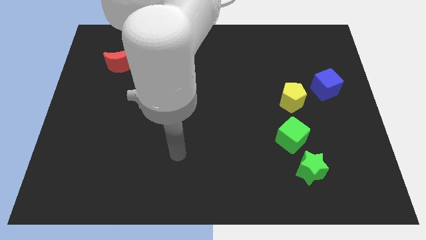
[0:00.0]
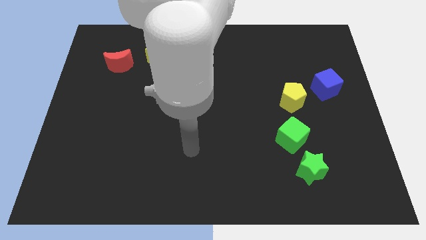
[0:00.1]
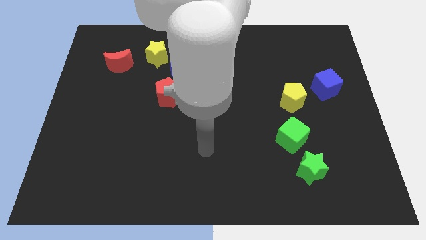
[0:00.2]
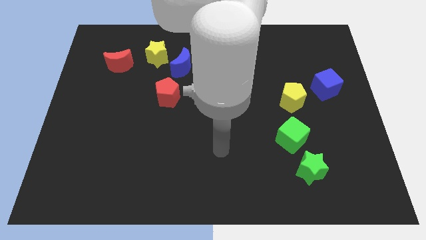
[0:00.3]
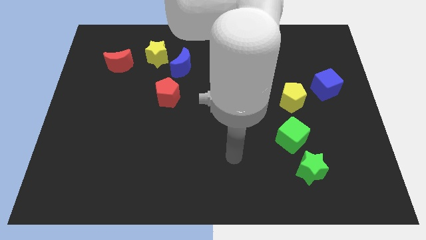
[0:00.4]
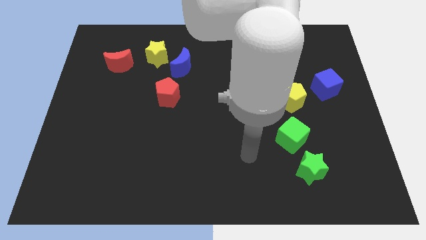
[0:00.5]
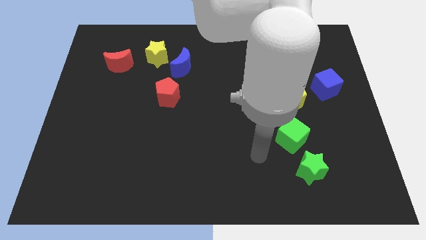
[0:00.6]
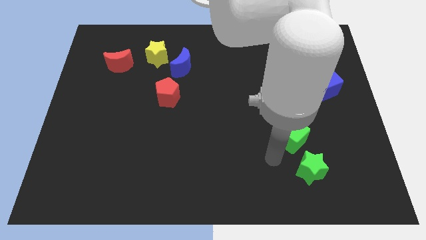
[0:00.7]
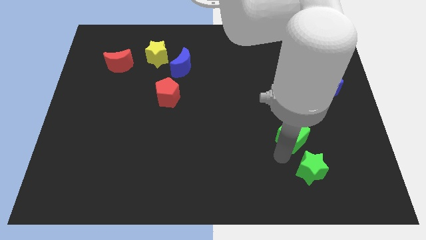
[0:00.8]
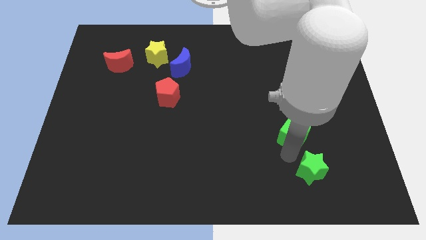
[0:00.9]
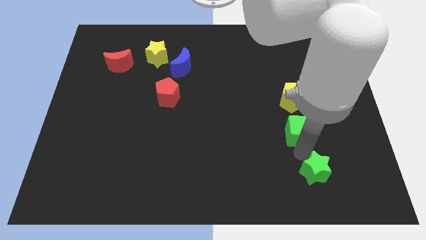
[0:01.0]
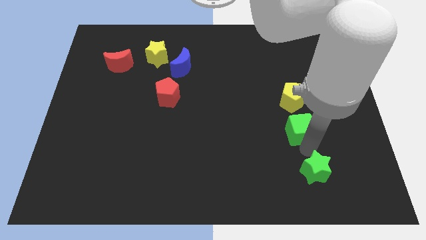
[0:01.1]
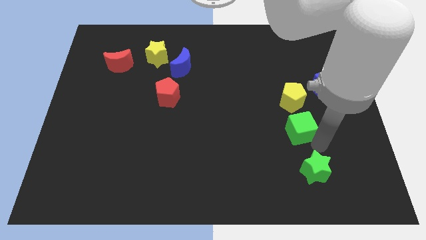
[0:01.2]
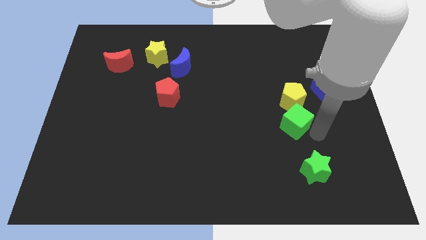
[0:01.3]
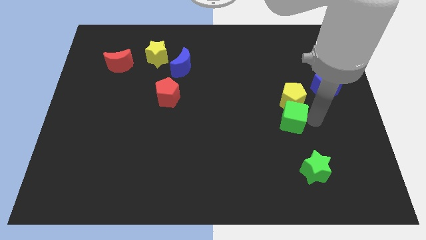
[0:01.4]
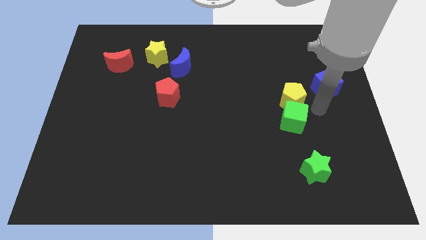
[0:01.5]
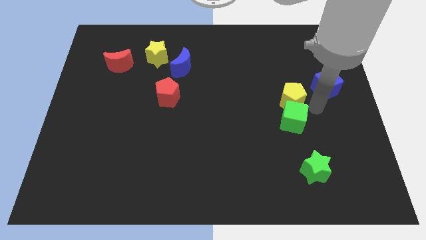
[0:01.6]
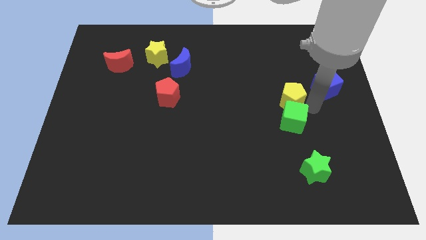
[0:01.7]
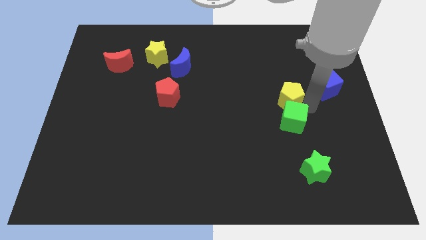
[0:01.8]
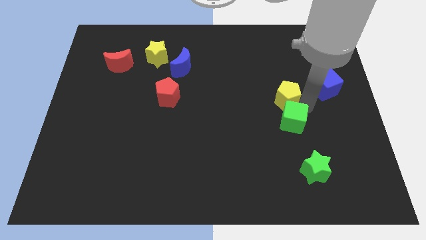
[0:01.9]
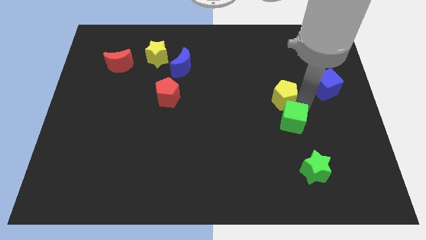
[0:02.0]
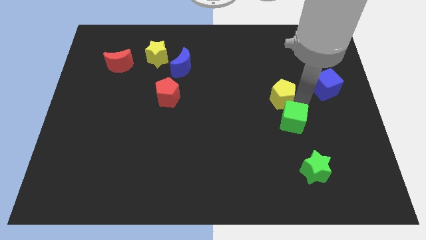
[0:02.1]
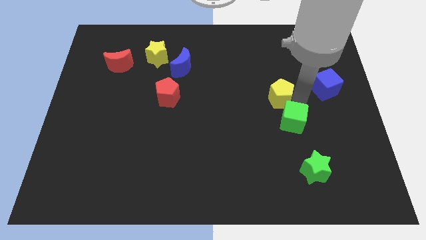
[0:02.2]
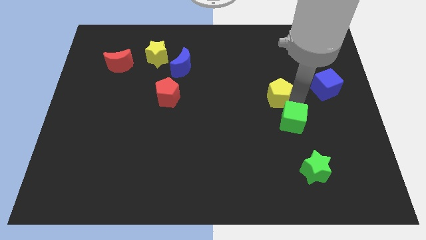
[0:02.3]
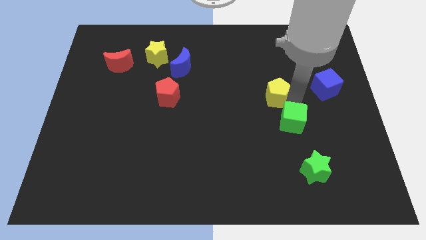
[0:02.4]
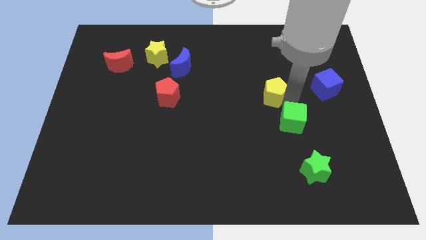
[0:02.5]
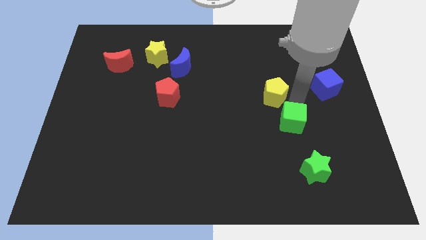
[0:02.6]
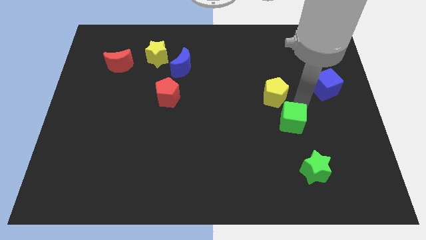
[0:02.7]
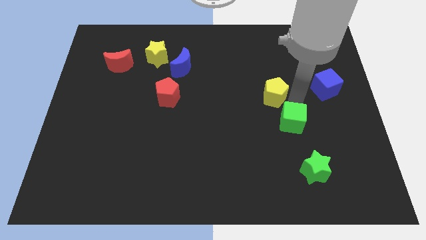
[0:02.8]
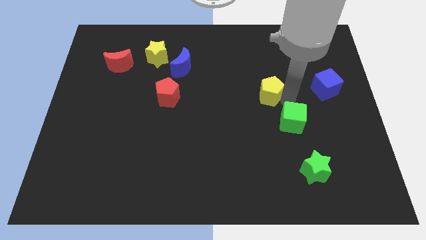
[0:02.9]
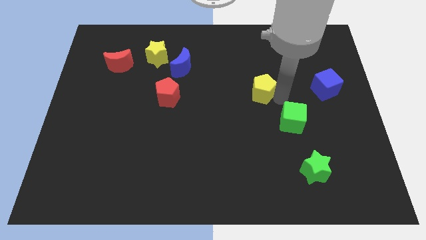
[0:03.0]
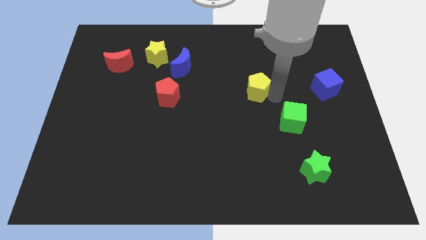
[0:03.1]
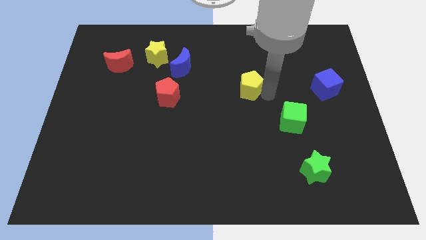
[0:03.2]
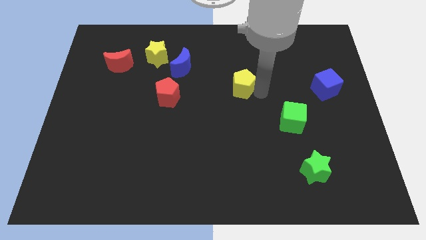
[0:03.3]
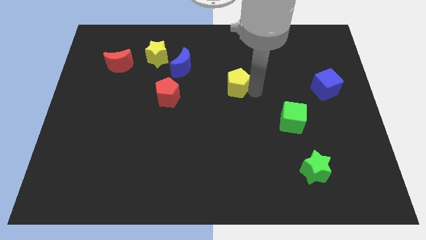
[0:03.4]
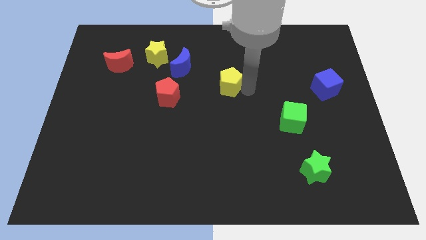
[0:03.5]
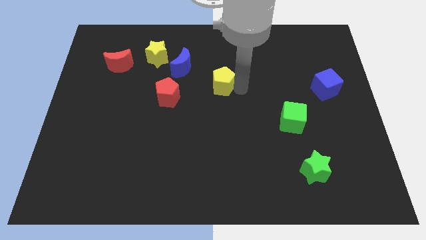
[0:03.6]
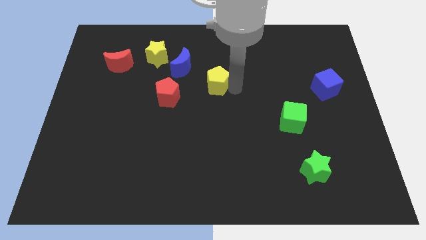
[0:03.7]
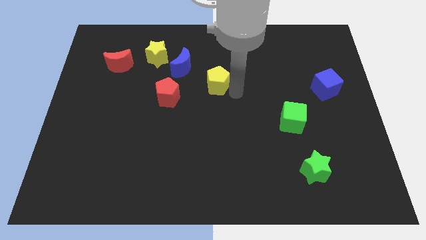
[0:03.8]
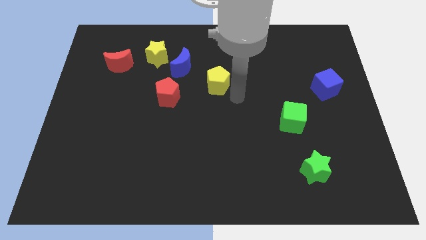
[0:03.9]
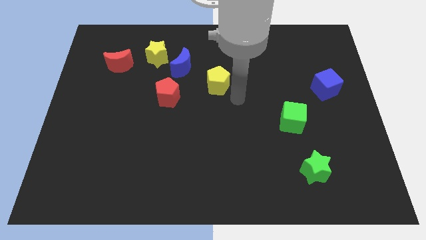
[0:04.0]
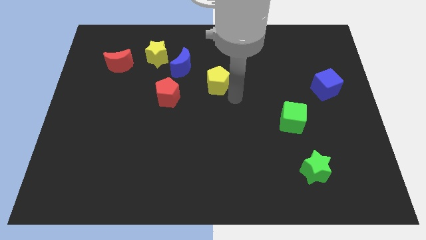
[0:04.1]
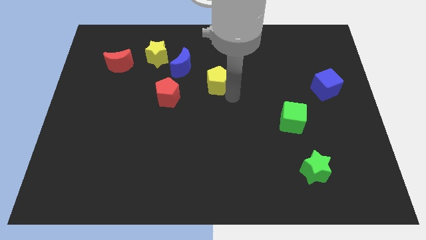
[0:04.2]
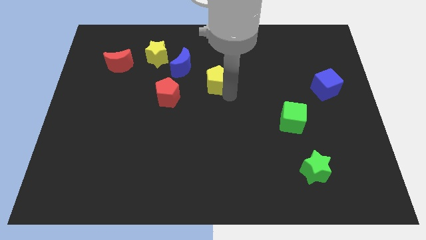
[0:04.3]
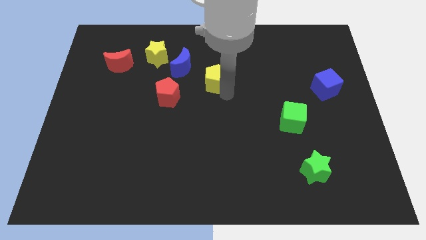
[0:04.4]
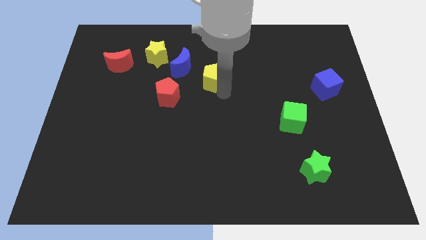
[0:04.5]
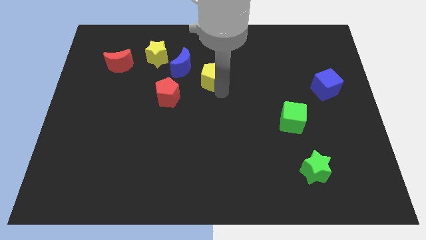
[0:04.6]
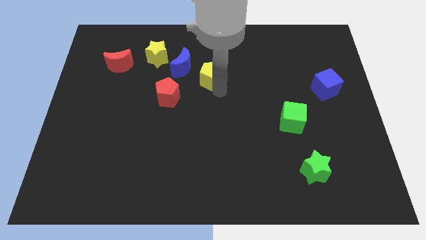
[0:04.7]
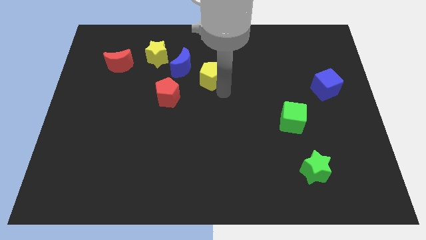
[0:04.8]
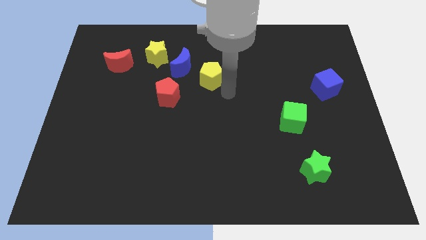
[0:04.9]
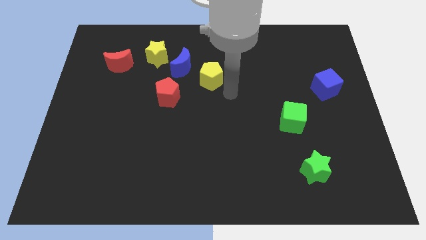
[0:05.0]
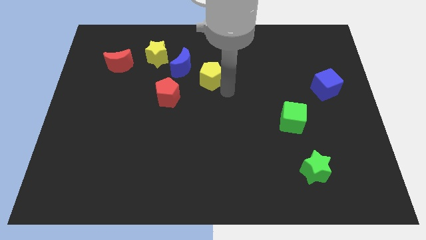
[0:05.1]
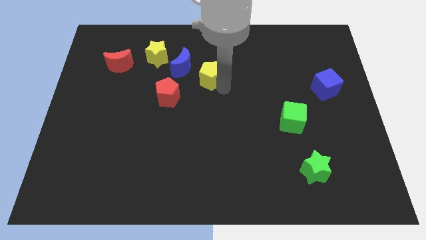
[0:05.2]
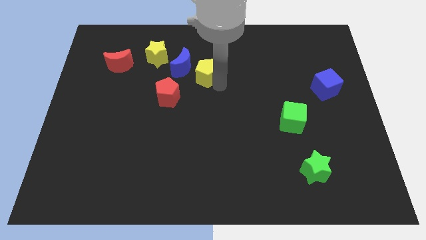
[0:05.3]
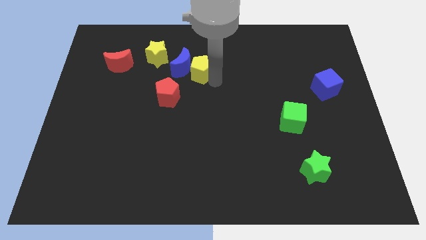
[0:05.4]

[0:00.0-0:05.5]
put the yellow pentagon towards the blue moon

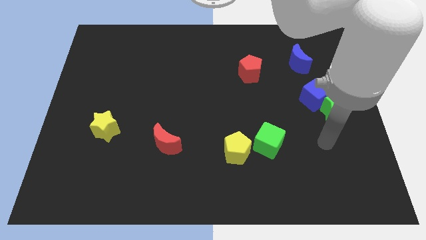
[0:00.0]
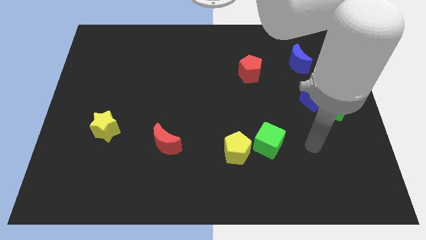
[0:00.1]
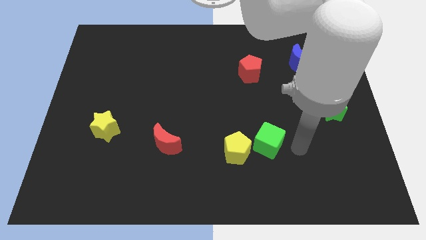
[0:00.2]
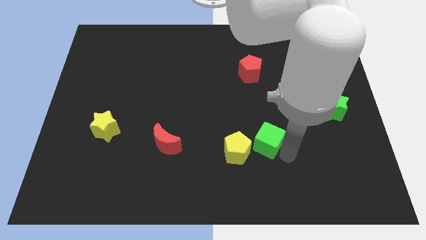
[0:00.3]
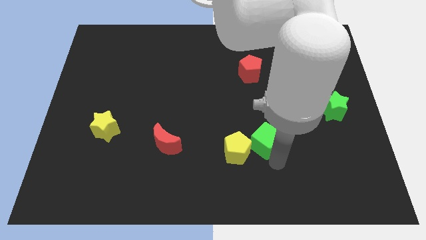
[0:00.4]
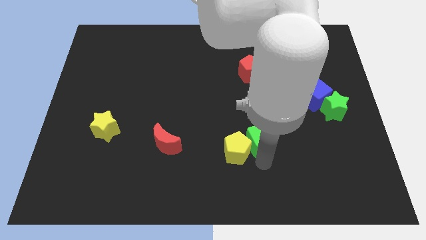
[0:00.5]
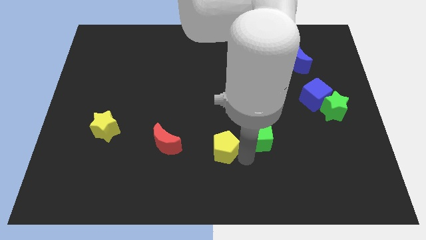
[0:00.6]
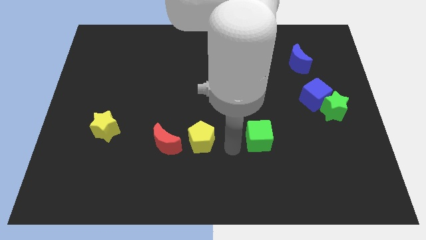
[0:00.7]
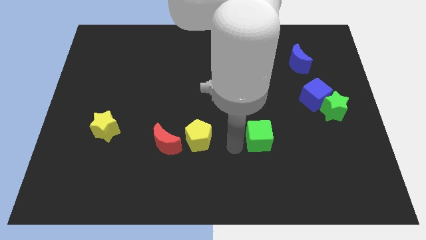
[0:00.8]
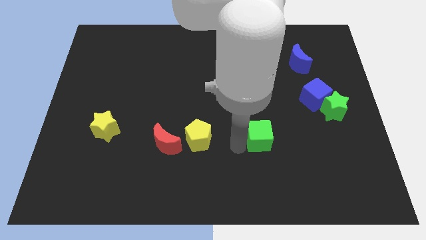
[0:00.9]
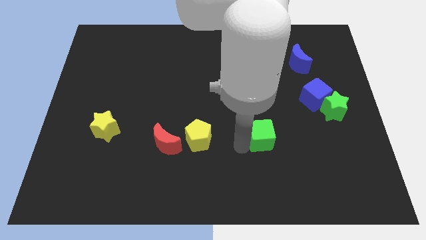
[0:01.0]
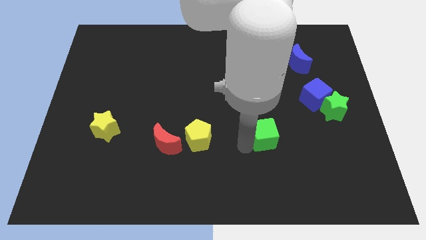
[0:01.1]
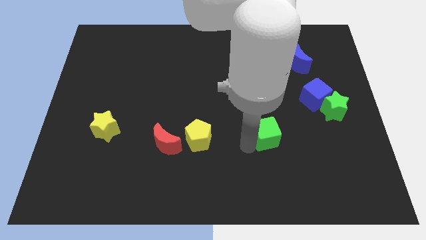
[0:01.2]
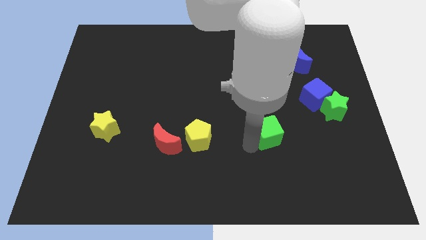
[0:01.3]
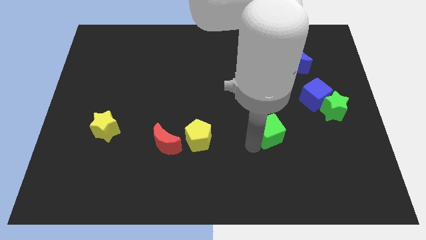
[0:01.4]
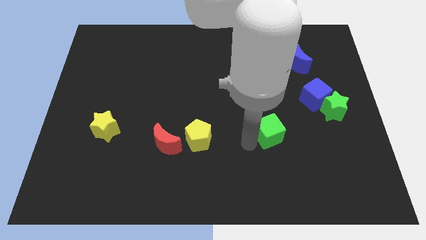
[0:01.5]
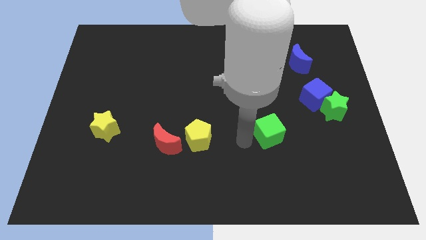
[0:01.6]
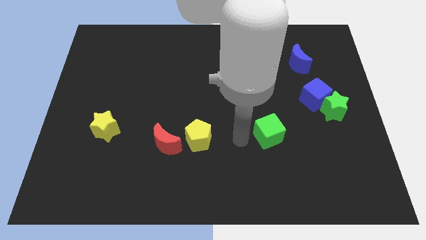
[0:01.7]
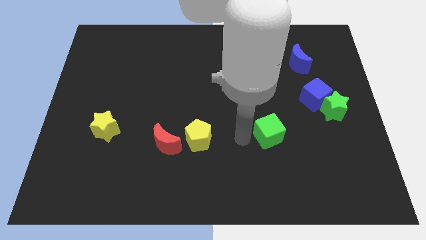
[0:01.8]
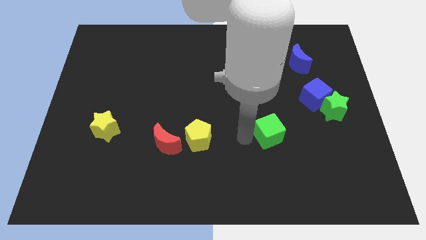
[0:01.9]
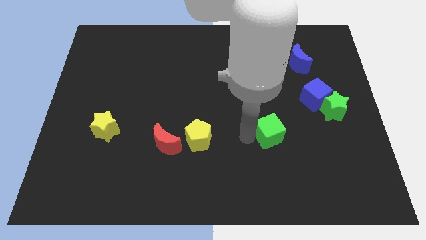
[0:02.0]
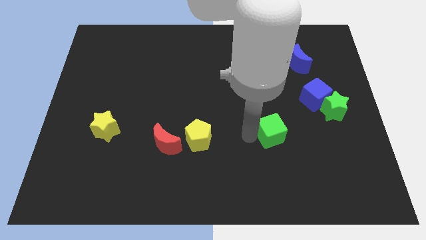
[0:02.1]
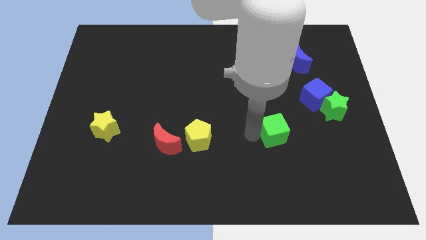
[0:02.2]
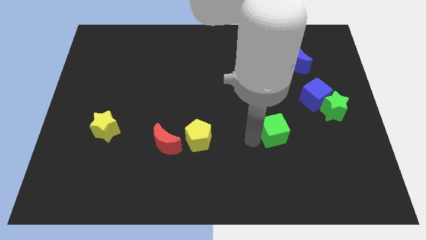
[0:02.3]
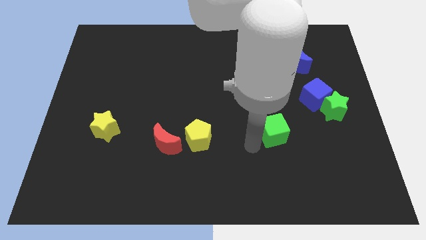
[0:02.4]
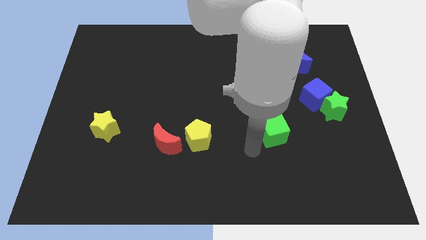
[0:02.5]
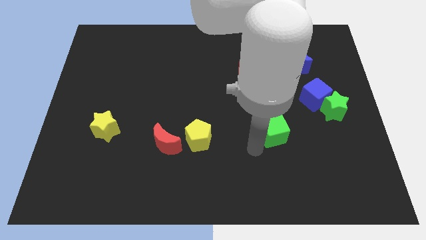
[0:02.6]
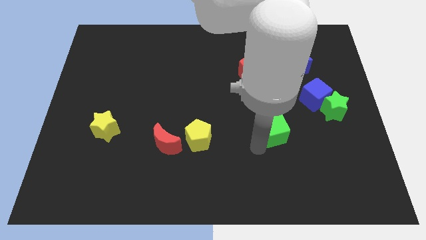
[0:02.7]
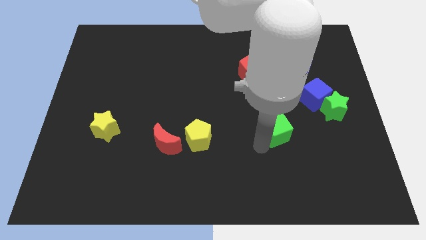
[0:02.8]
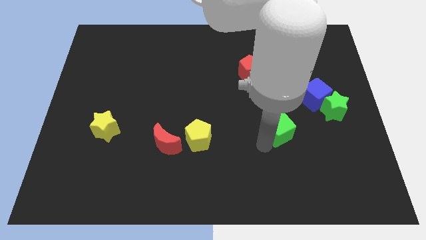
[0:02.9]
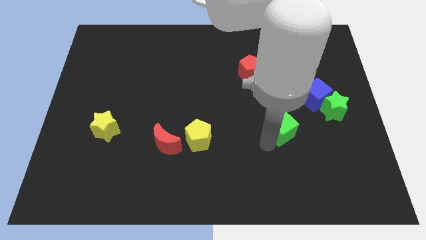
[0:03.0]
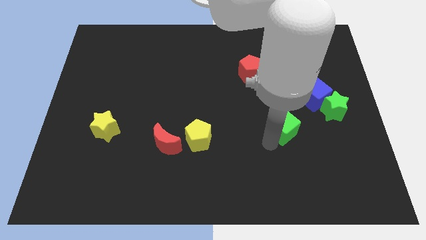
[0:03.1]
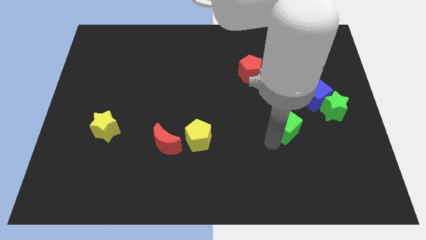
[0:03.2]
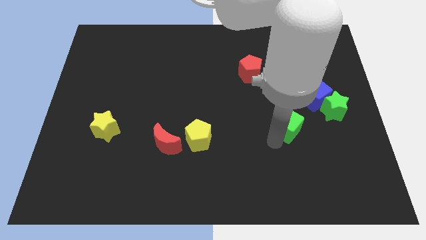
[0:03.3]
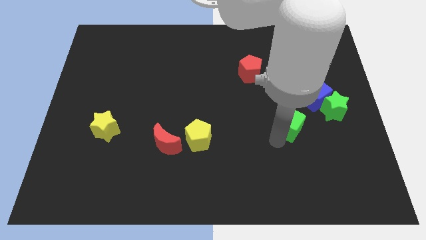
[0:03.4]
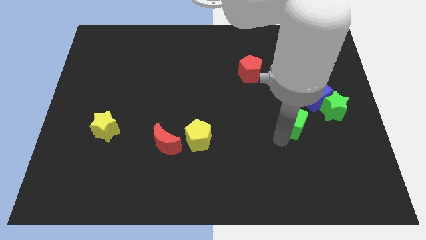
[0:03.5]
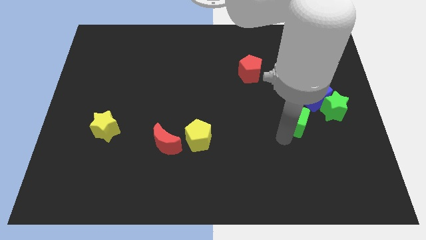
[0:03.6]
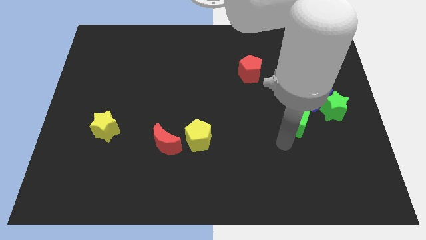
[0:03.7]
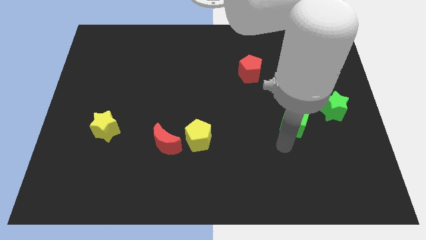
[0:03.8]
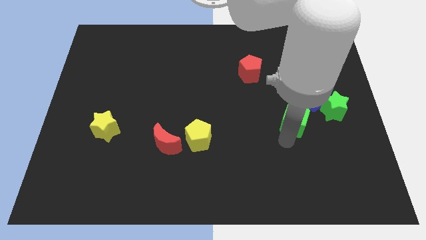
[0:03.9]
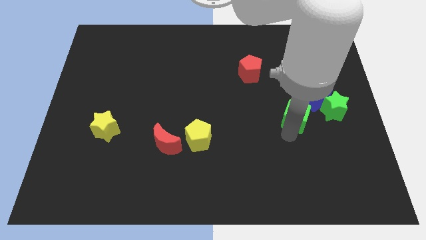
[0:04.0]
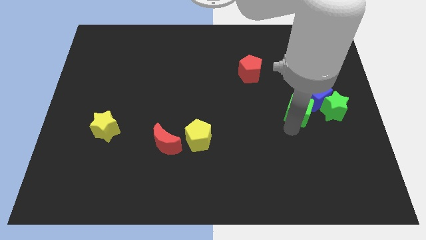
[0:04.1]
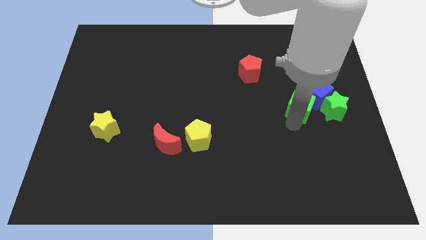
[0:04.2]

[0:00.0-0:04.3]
move the green cube to the blue cube
